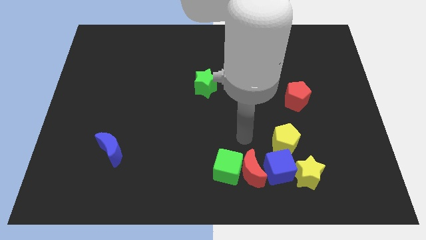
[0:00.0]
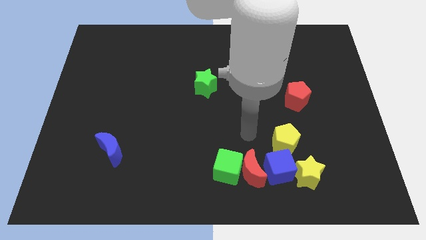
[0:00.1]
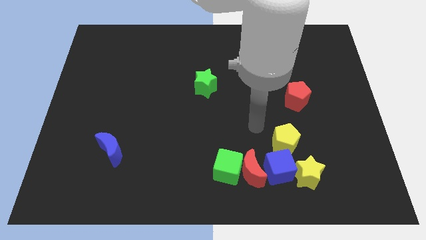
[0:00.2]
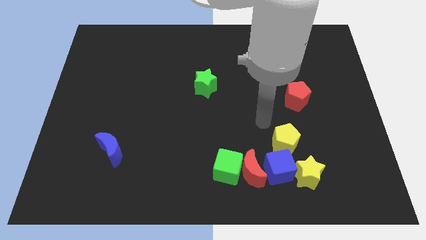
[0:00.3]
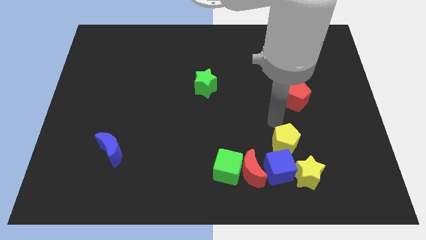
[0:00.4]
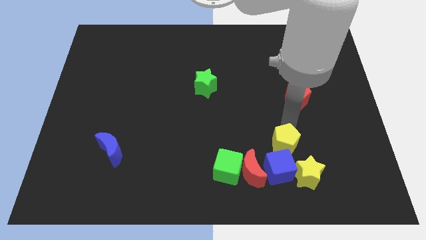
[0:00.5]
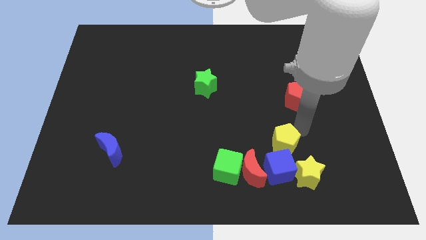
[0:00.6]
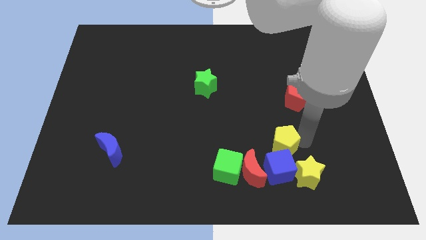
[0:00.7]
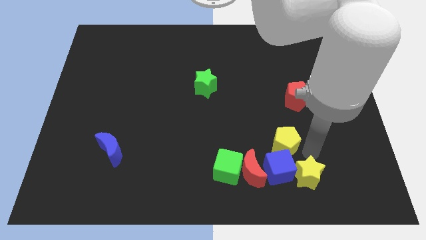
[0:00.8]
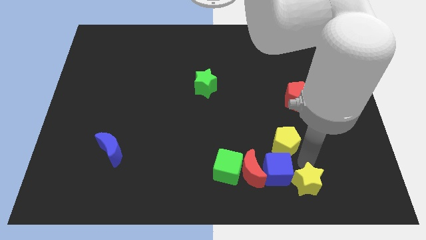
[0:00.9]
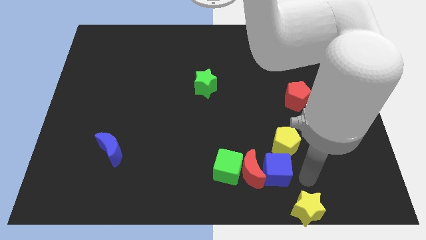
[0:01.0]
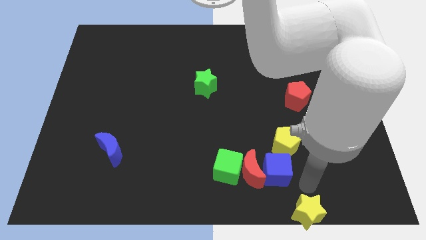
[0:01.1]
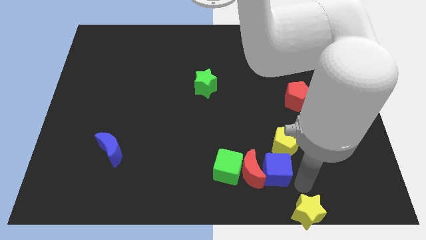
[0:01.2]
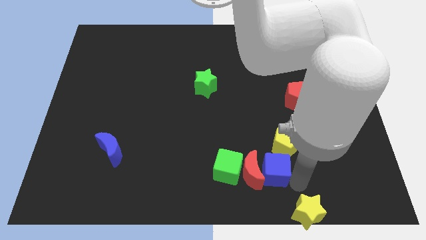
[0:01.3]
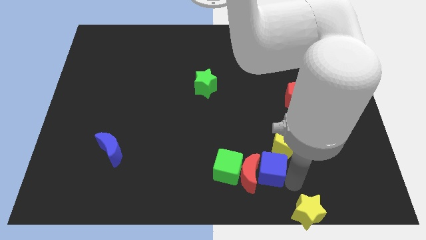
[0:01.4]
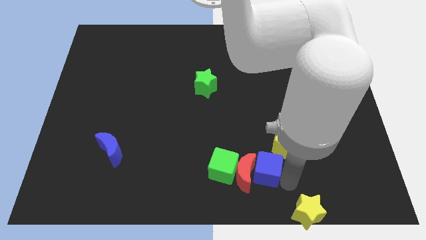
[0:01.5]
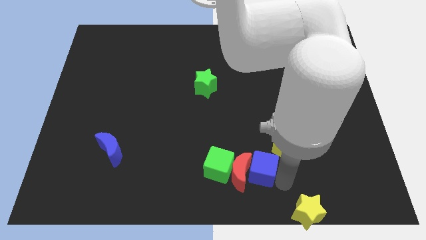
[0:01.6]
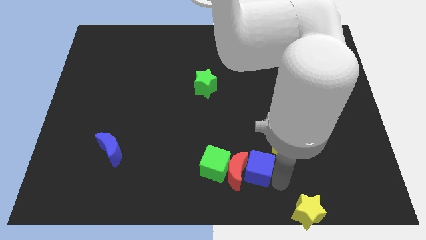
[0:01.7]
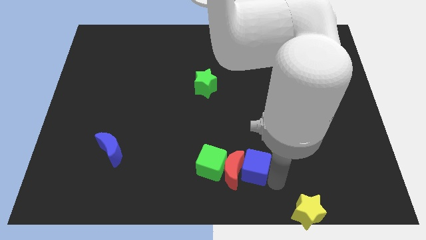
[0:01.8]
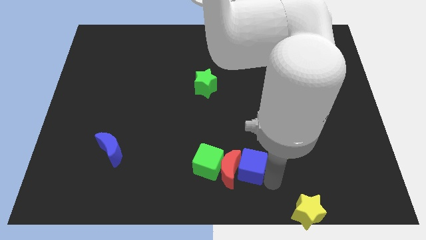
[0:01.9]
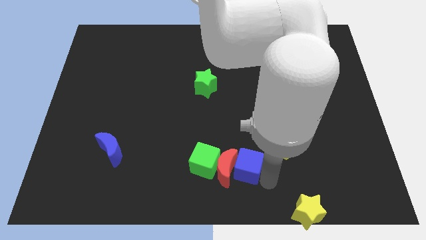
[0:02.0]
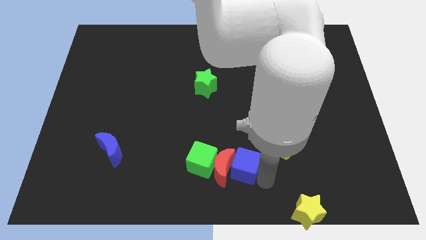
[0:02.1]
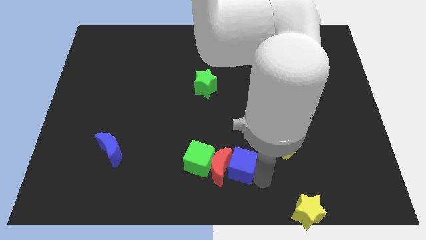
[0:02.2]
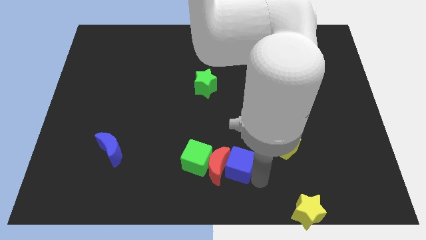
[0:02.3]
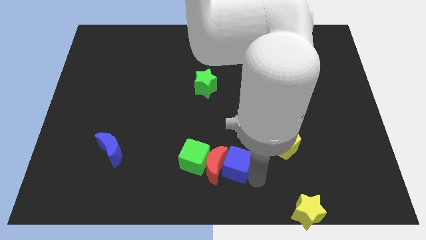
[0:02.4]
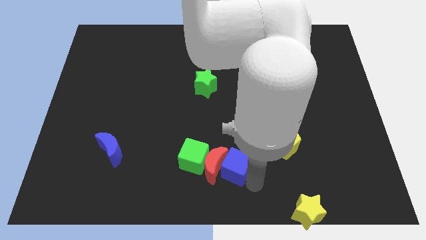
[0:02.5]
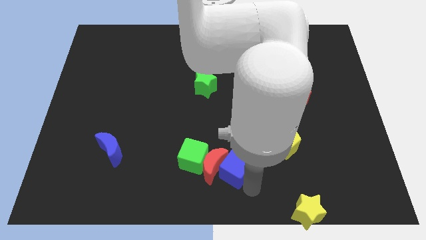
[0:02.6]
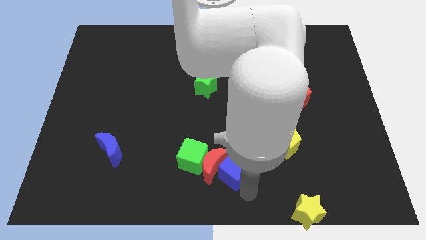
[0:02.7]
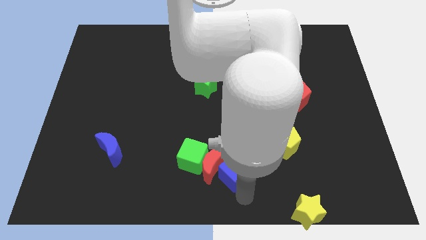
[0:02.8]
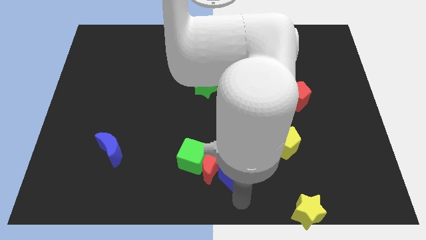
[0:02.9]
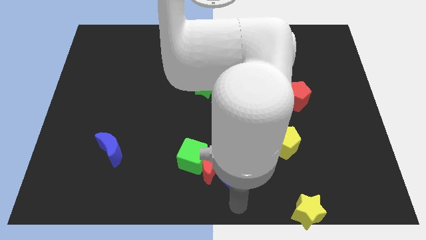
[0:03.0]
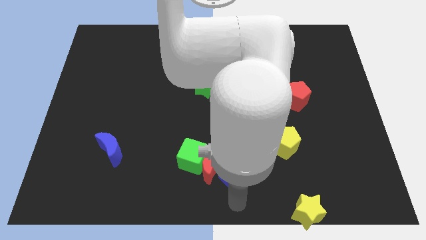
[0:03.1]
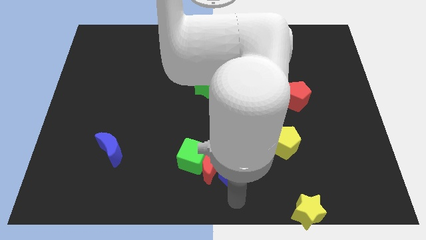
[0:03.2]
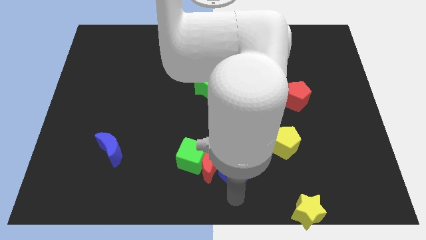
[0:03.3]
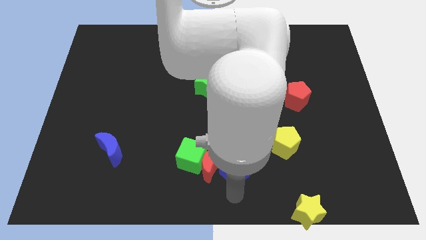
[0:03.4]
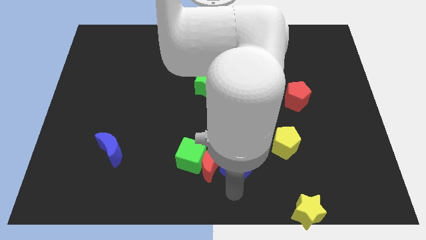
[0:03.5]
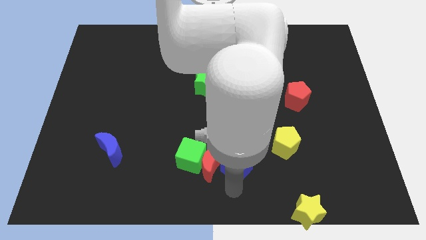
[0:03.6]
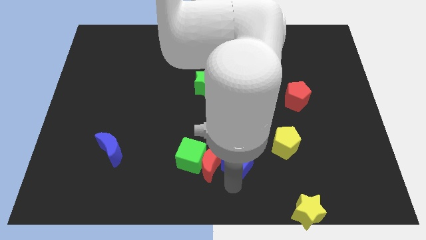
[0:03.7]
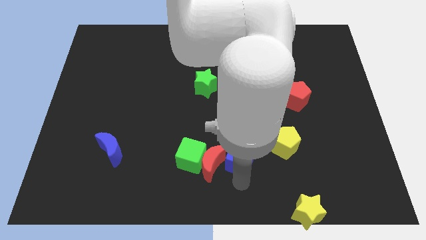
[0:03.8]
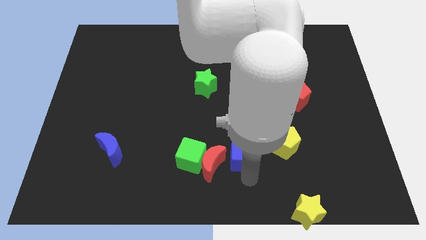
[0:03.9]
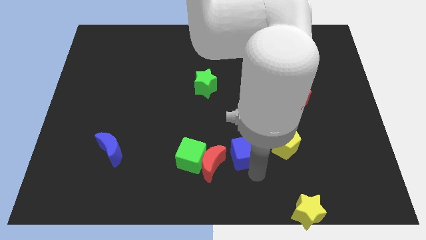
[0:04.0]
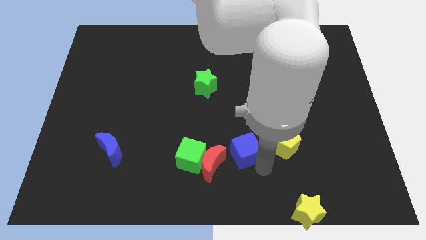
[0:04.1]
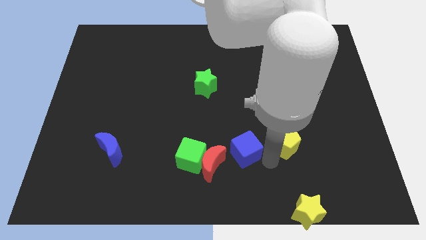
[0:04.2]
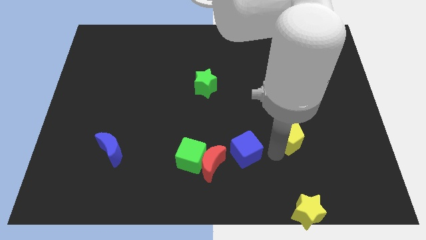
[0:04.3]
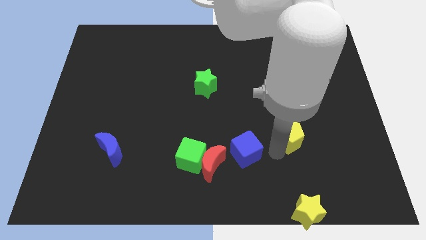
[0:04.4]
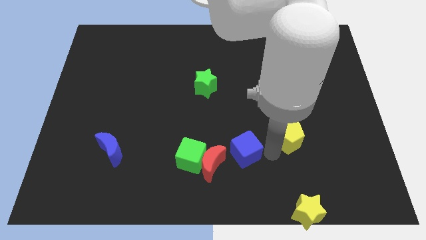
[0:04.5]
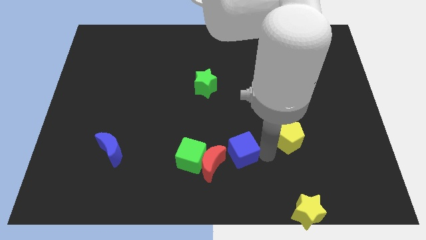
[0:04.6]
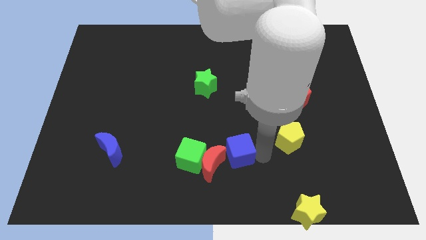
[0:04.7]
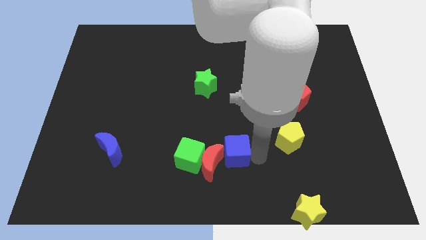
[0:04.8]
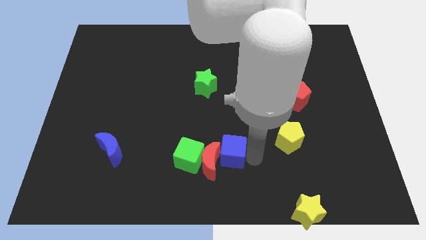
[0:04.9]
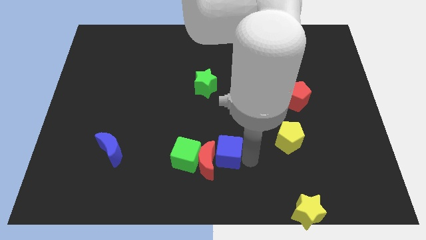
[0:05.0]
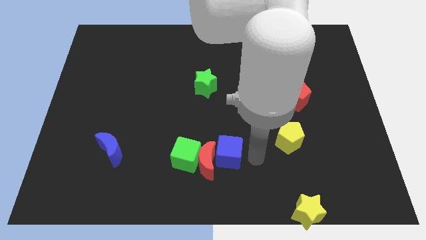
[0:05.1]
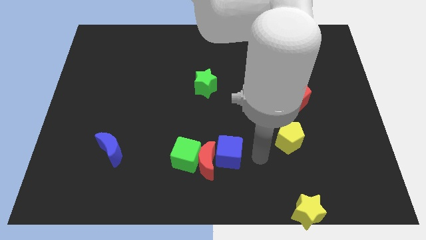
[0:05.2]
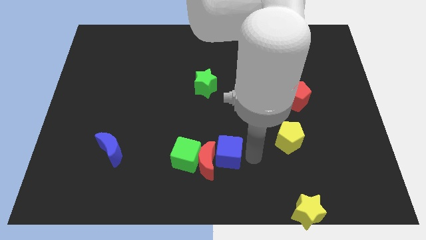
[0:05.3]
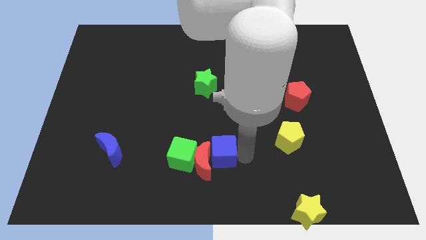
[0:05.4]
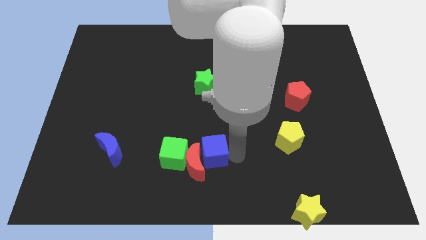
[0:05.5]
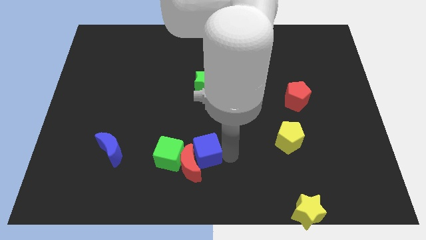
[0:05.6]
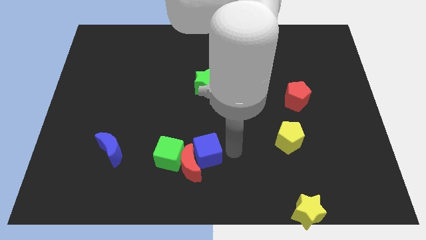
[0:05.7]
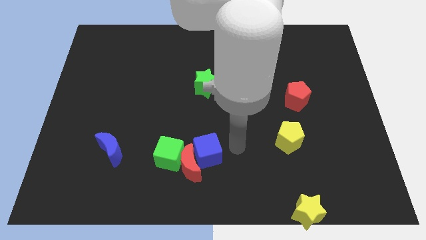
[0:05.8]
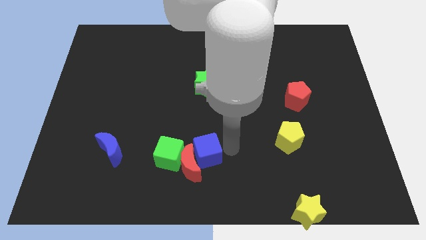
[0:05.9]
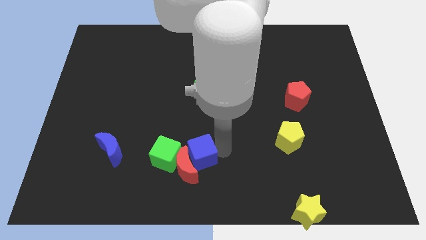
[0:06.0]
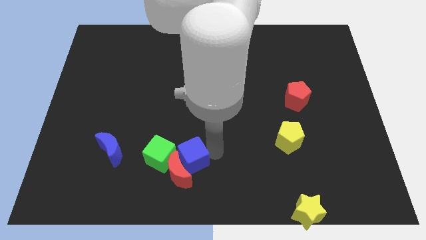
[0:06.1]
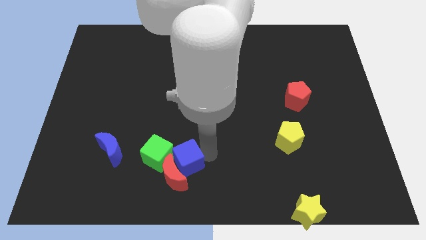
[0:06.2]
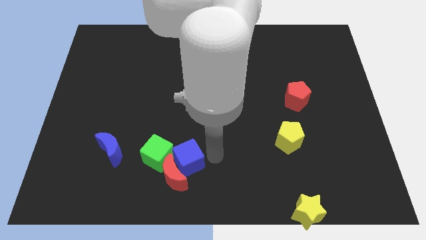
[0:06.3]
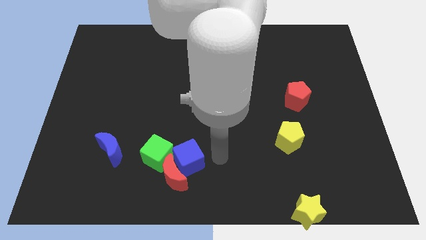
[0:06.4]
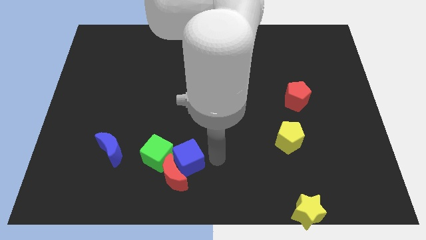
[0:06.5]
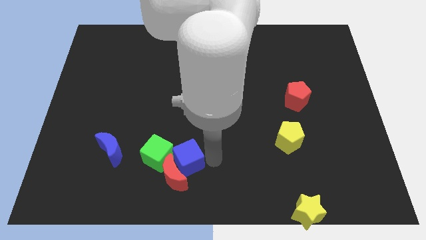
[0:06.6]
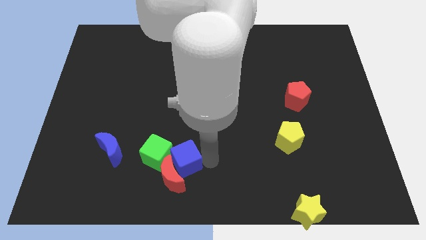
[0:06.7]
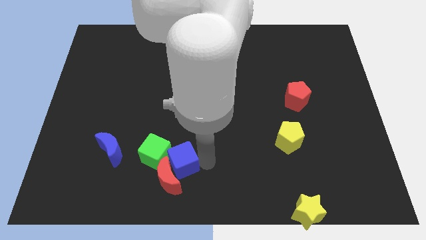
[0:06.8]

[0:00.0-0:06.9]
slide the blue cube to the left

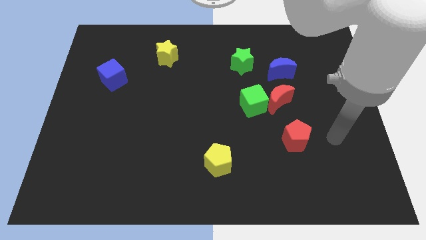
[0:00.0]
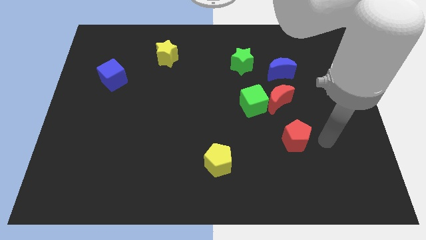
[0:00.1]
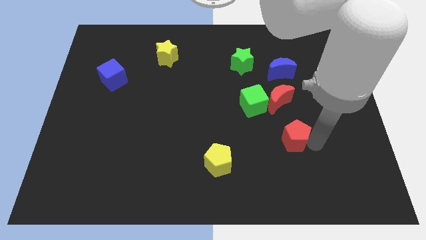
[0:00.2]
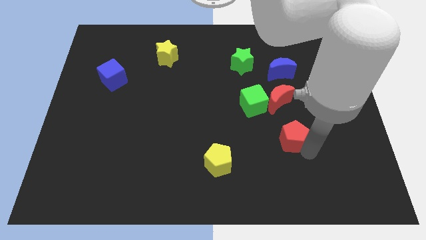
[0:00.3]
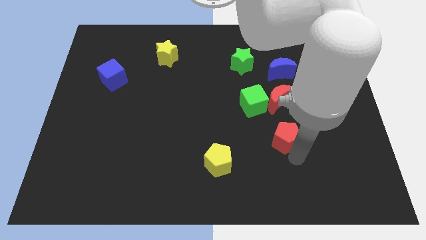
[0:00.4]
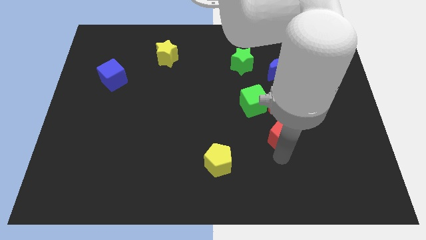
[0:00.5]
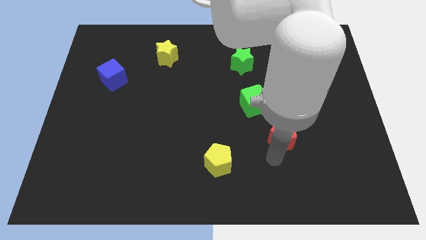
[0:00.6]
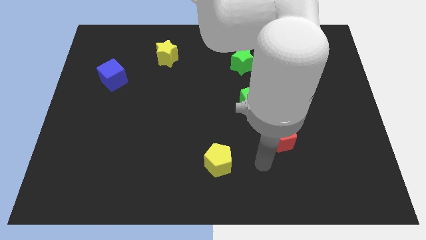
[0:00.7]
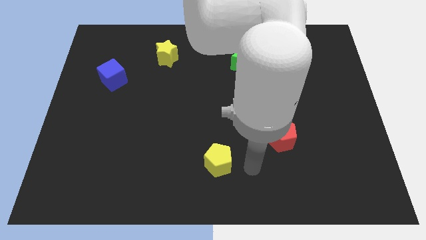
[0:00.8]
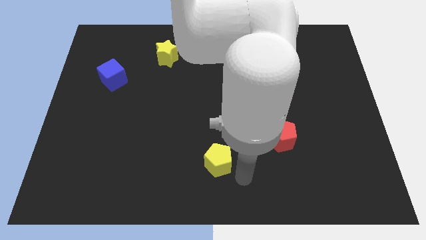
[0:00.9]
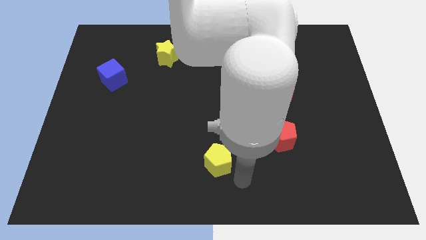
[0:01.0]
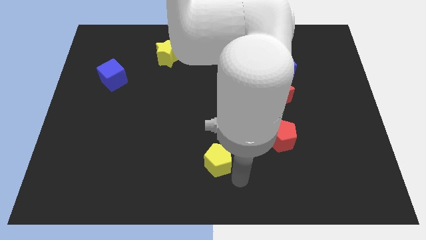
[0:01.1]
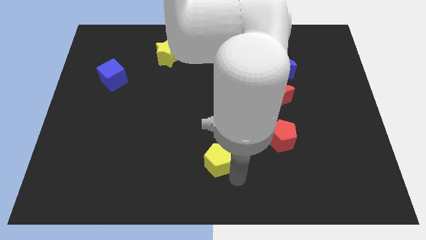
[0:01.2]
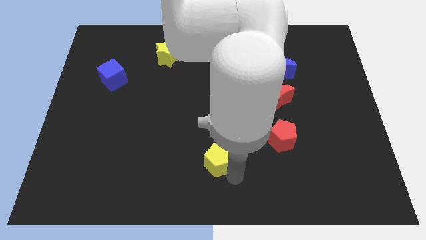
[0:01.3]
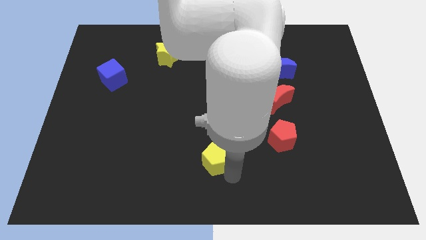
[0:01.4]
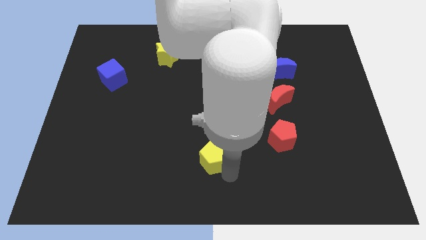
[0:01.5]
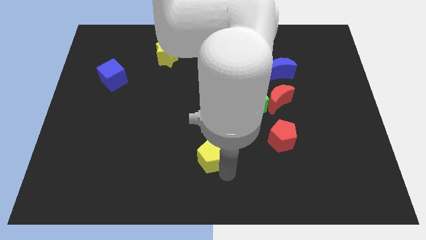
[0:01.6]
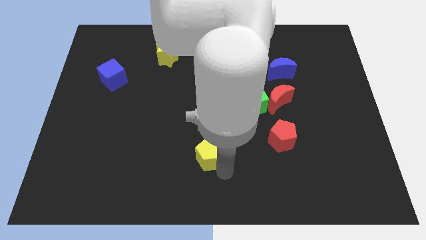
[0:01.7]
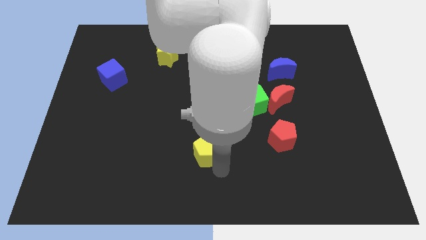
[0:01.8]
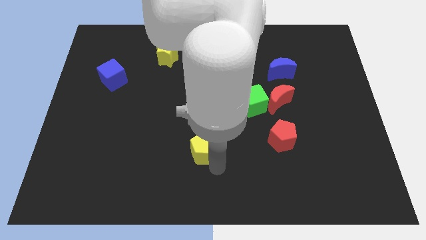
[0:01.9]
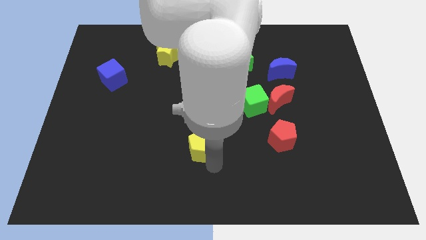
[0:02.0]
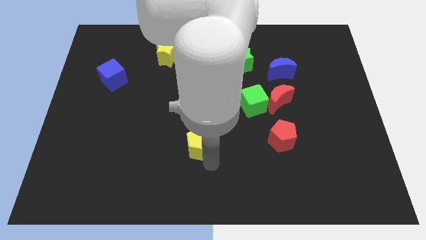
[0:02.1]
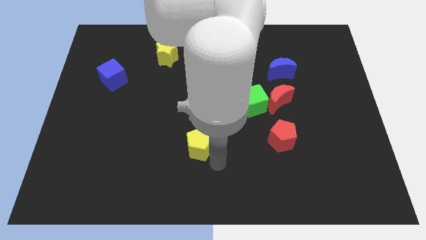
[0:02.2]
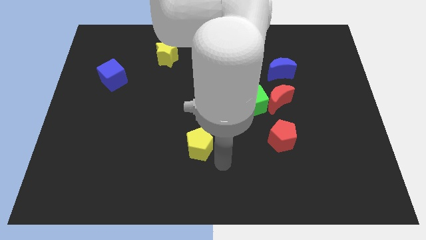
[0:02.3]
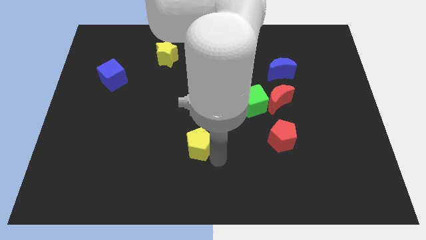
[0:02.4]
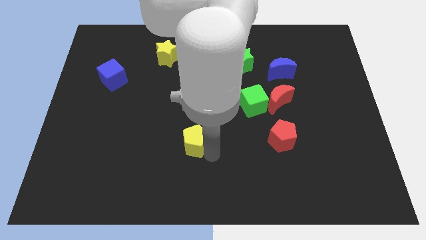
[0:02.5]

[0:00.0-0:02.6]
move the yellow pentagon a little bit upwards and left diagonally
